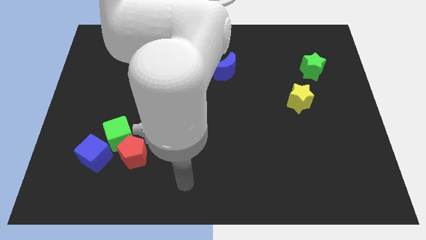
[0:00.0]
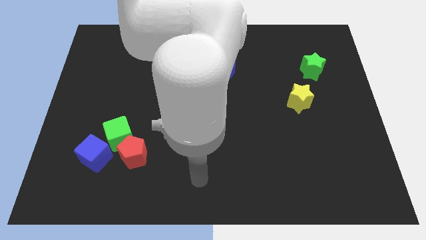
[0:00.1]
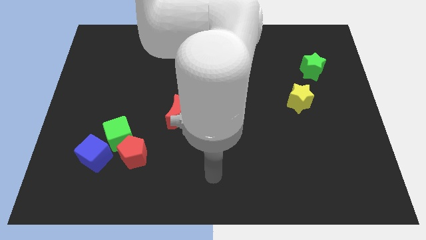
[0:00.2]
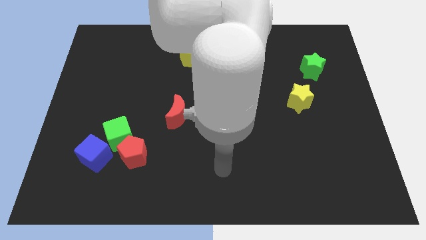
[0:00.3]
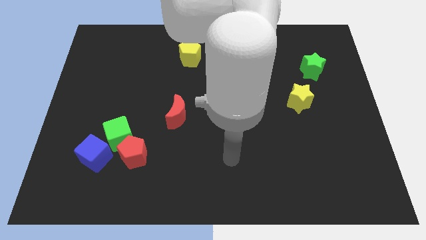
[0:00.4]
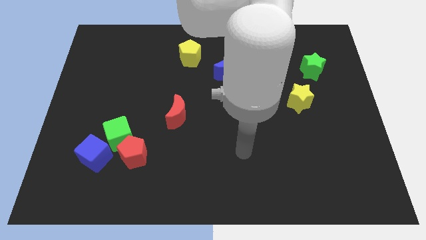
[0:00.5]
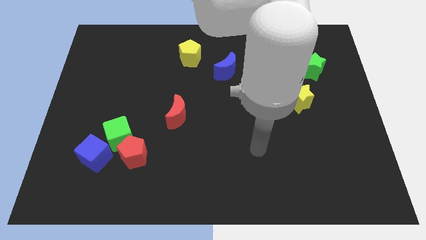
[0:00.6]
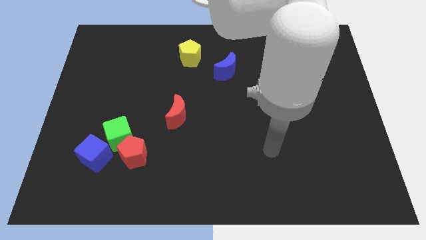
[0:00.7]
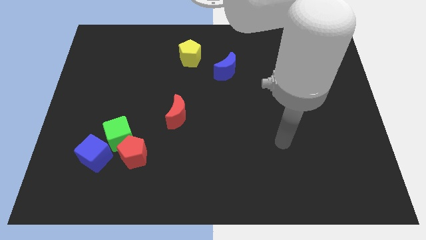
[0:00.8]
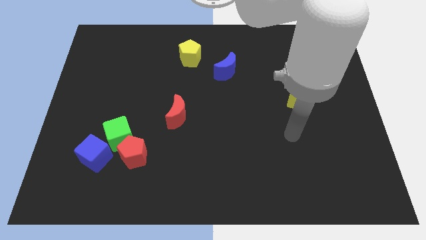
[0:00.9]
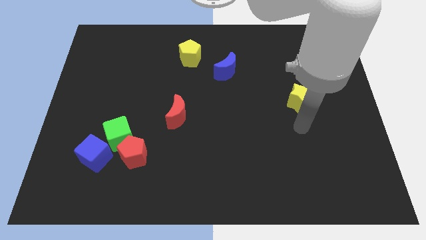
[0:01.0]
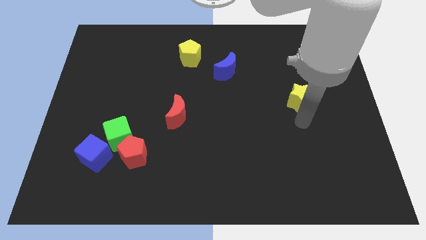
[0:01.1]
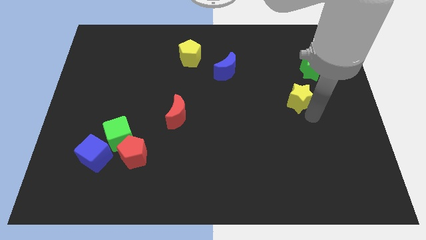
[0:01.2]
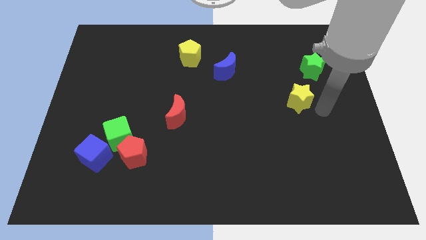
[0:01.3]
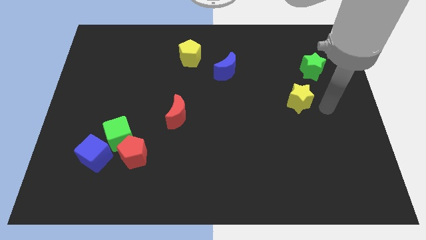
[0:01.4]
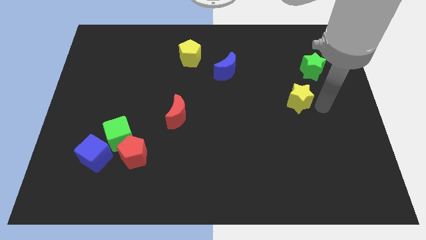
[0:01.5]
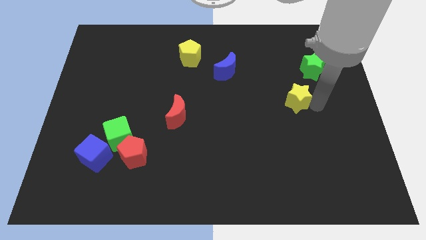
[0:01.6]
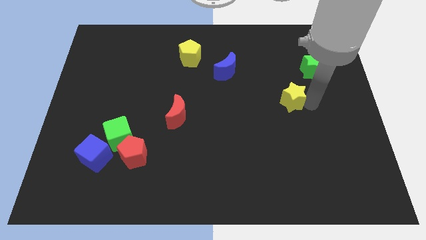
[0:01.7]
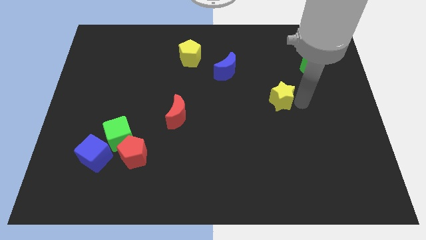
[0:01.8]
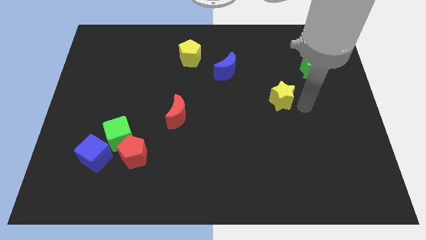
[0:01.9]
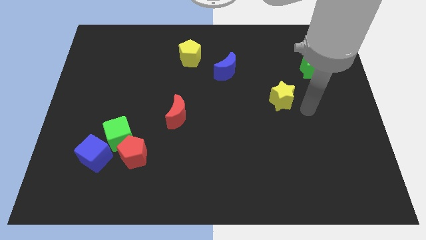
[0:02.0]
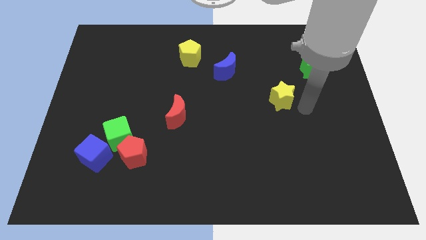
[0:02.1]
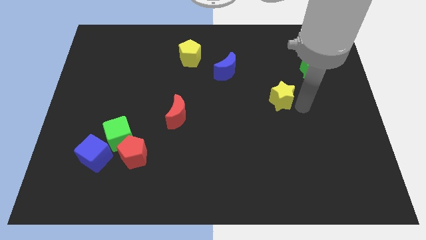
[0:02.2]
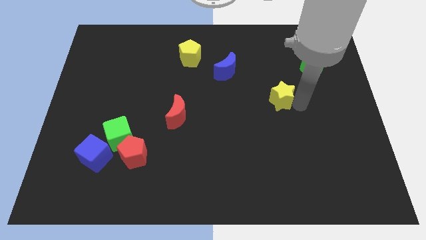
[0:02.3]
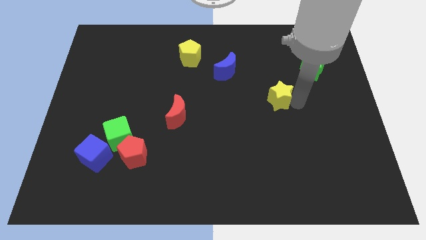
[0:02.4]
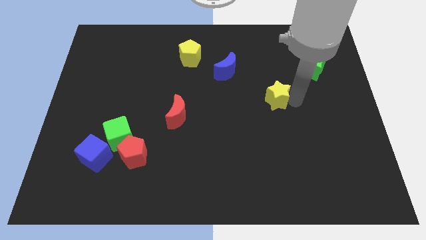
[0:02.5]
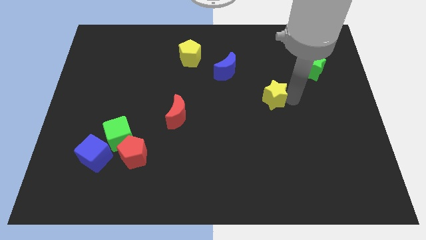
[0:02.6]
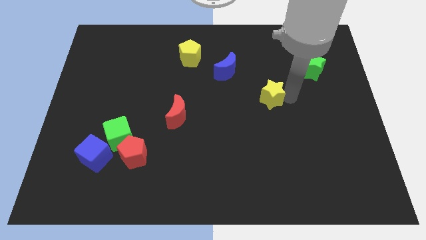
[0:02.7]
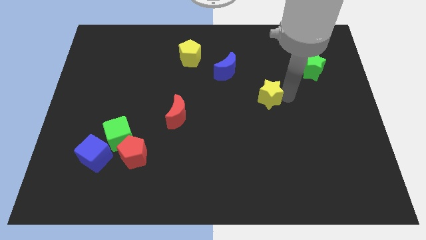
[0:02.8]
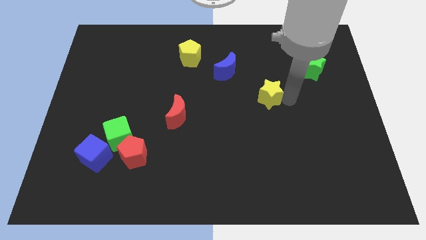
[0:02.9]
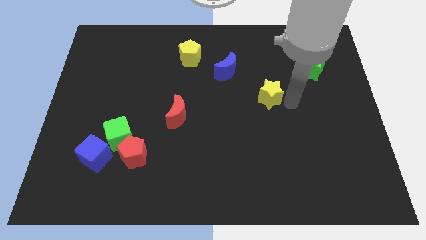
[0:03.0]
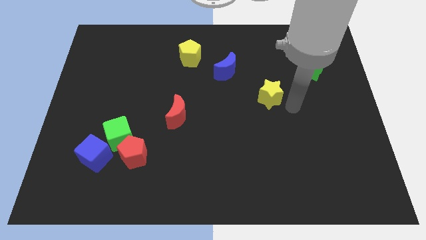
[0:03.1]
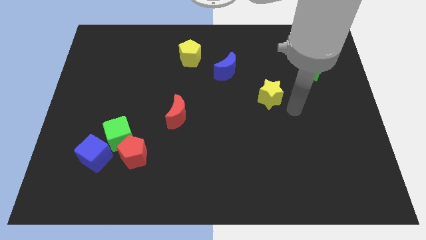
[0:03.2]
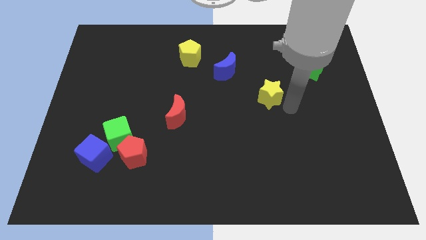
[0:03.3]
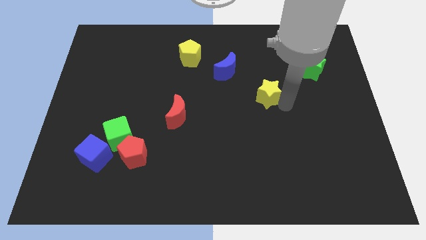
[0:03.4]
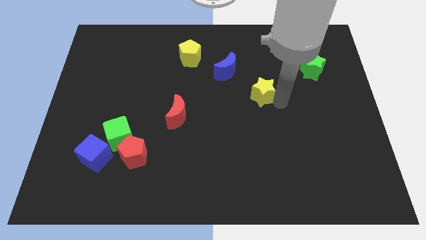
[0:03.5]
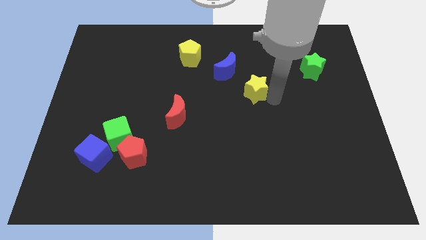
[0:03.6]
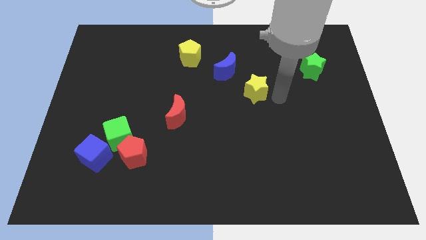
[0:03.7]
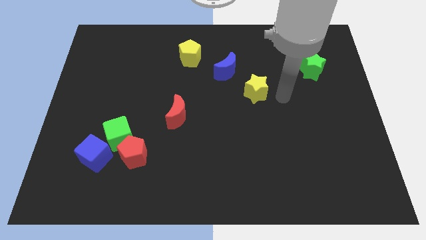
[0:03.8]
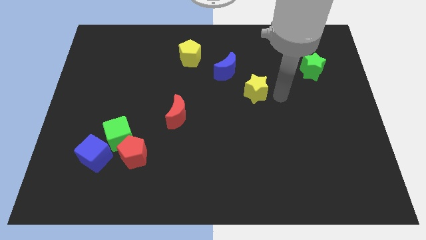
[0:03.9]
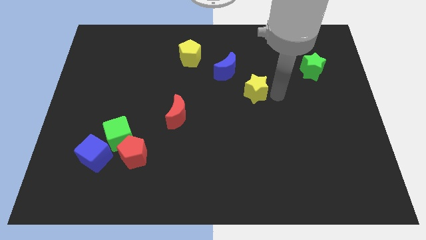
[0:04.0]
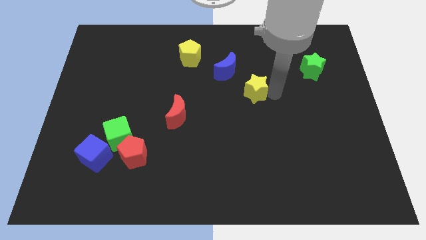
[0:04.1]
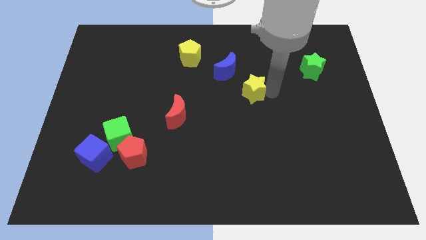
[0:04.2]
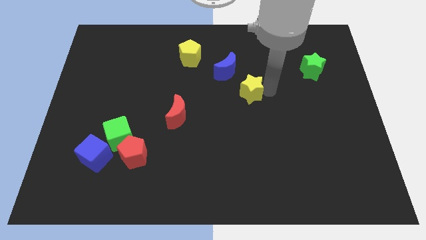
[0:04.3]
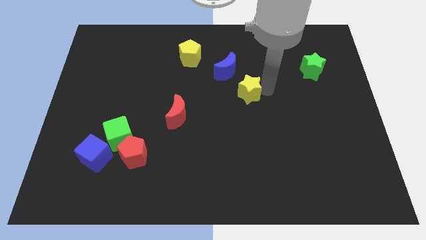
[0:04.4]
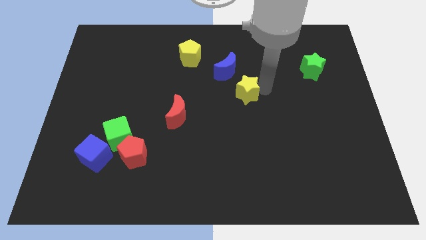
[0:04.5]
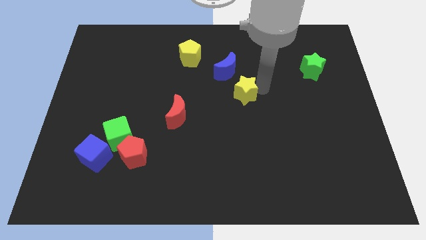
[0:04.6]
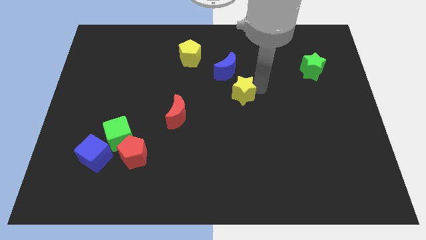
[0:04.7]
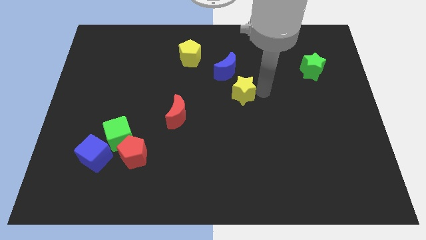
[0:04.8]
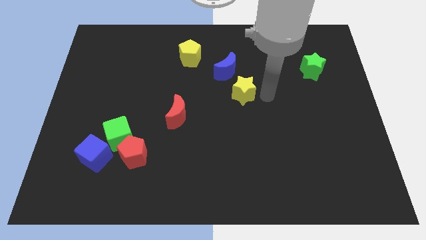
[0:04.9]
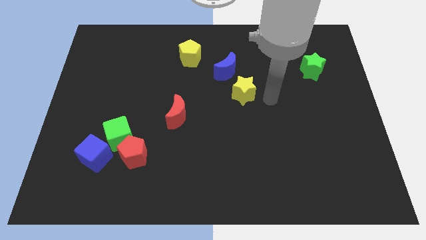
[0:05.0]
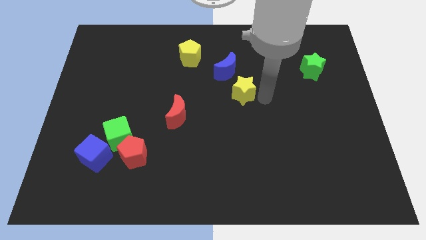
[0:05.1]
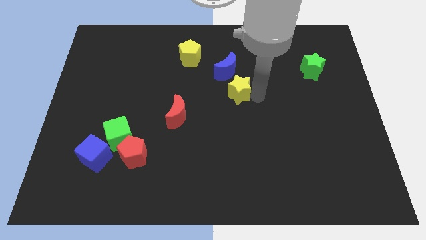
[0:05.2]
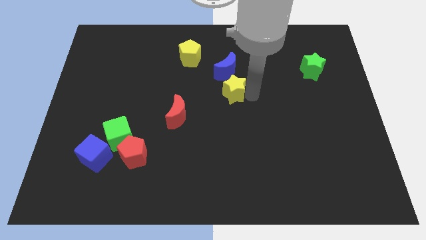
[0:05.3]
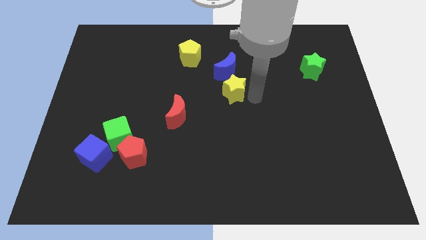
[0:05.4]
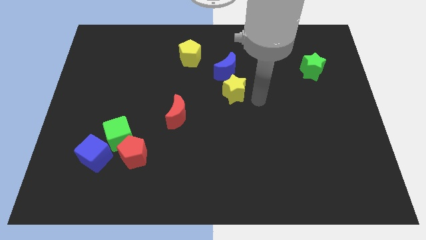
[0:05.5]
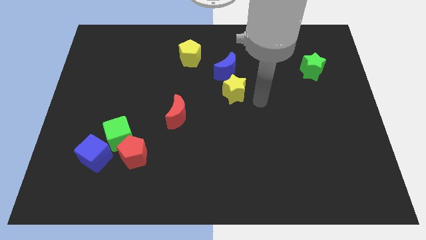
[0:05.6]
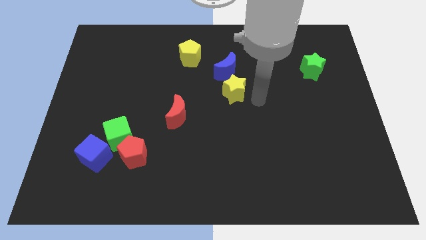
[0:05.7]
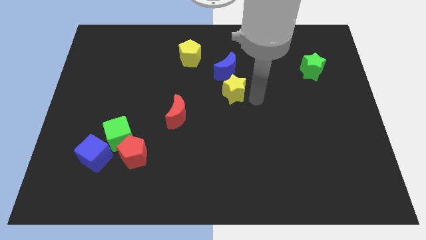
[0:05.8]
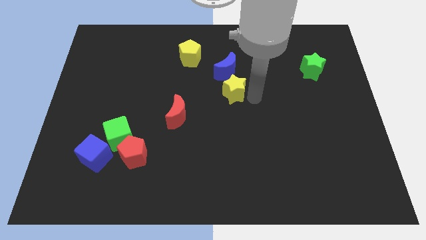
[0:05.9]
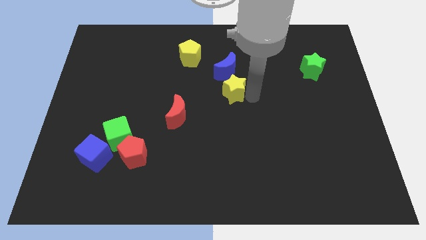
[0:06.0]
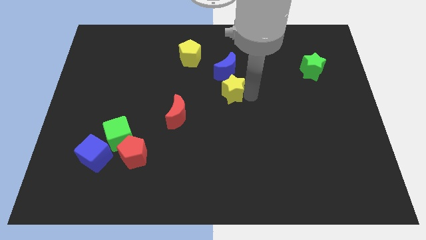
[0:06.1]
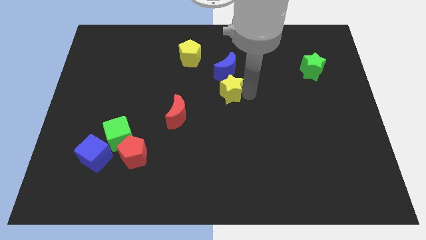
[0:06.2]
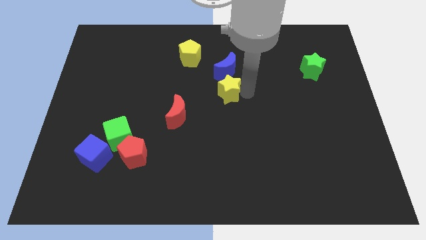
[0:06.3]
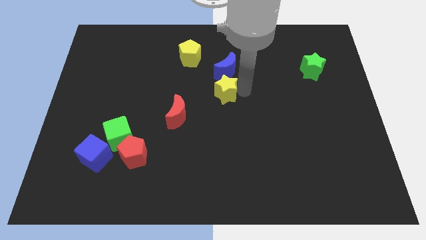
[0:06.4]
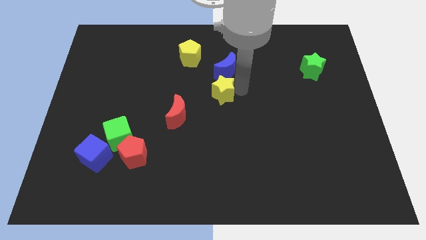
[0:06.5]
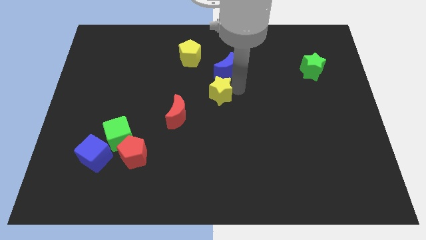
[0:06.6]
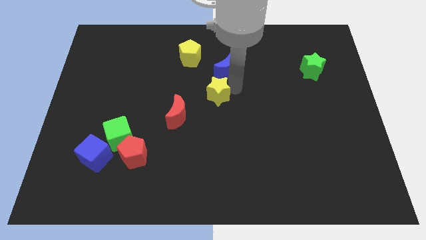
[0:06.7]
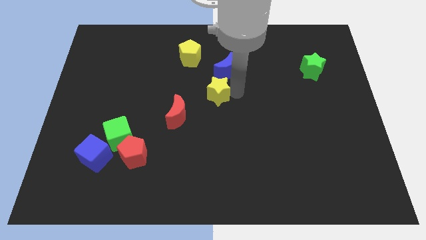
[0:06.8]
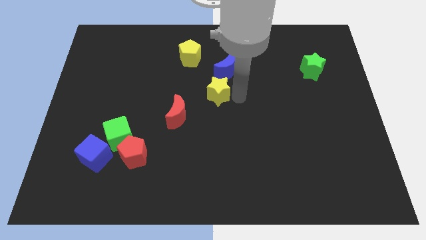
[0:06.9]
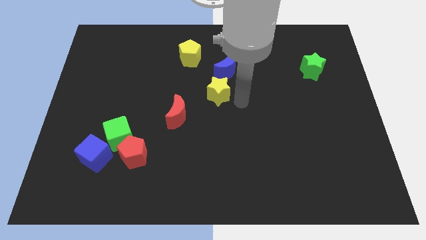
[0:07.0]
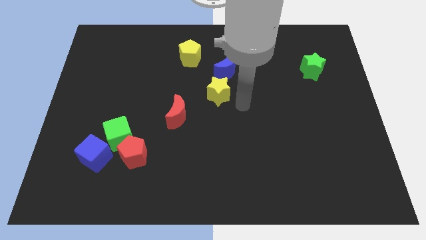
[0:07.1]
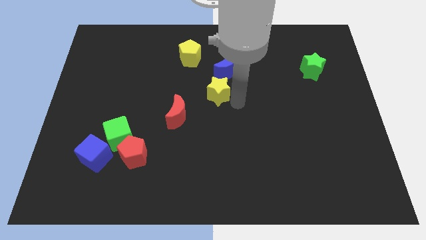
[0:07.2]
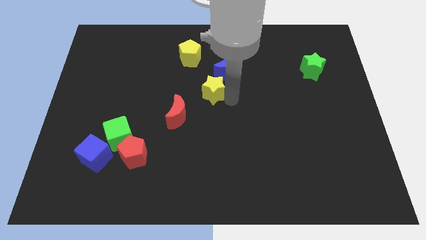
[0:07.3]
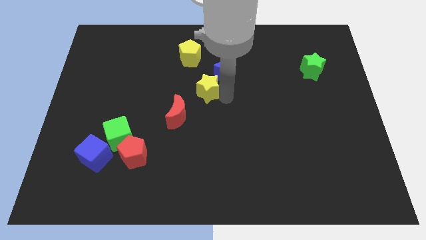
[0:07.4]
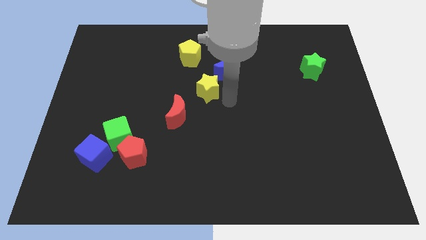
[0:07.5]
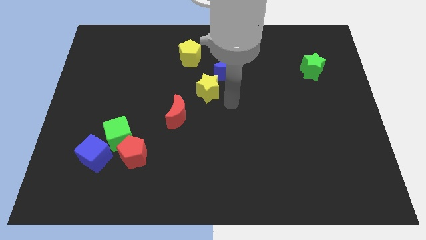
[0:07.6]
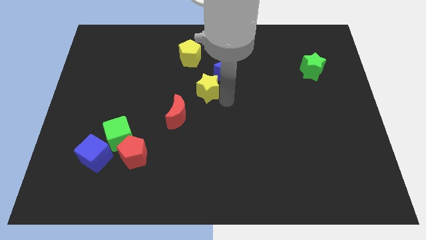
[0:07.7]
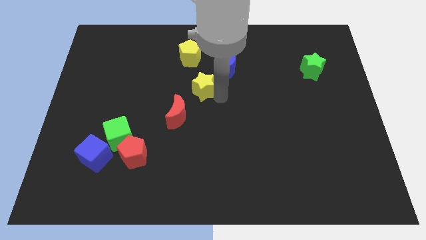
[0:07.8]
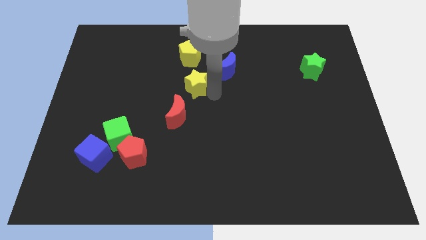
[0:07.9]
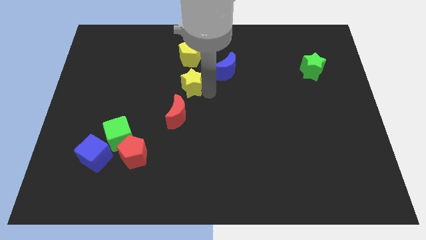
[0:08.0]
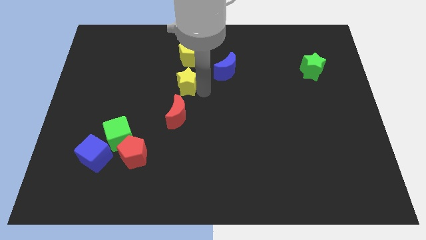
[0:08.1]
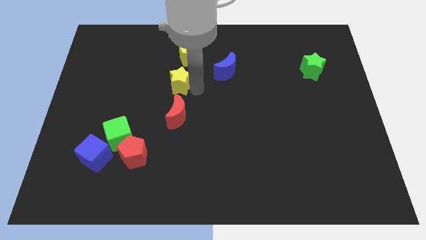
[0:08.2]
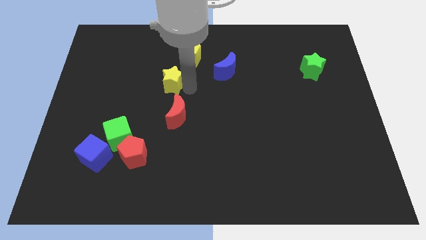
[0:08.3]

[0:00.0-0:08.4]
move the yellow star to the bottom left side of the yellow pentagon
